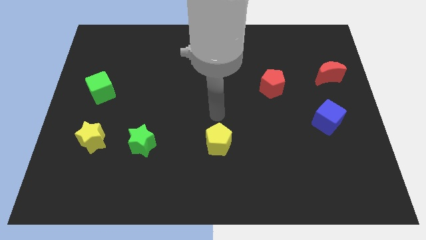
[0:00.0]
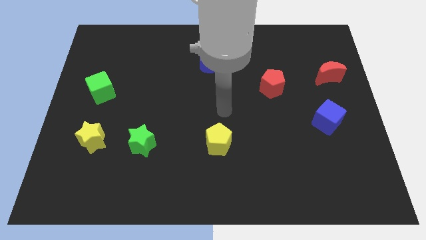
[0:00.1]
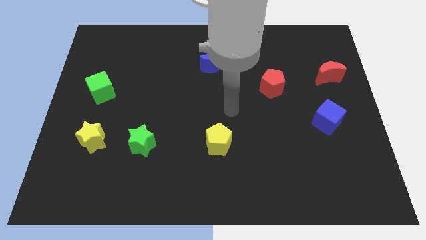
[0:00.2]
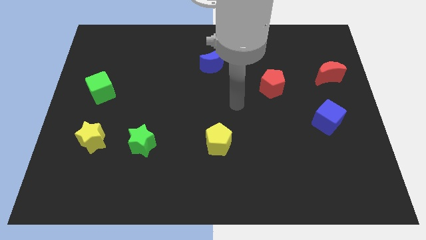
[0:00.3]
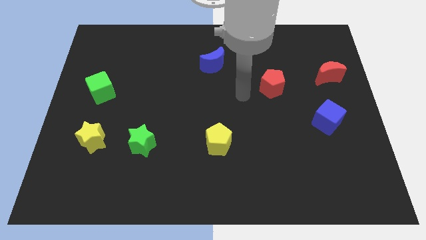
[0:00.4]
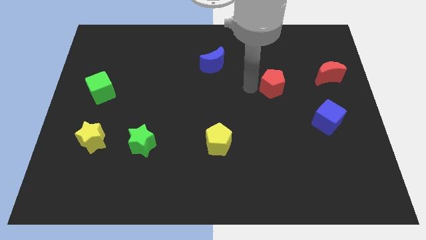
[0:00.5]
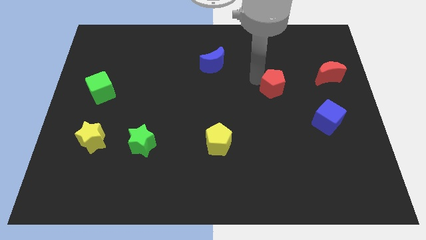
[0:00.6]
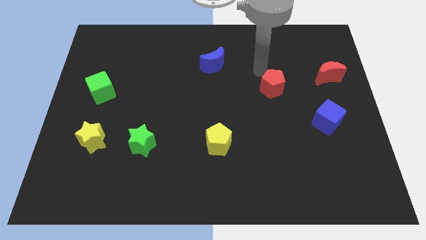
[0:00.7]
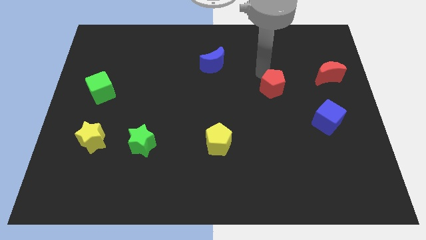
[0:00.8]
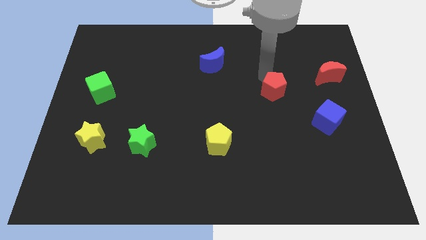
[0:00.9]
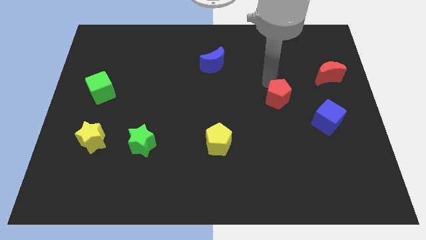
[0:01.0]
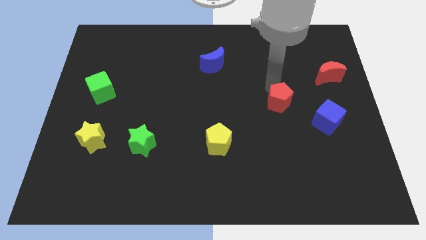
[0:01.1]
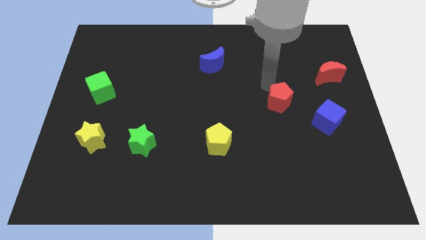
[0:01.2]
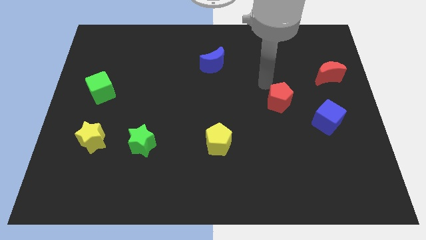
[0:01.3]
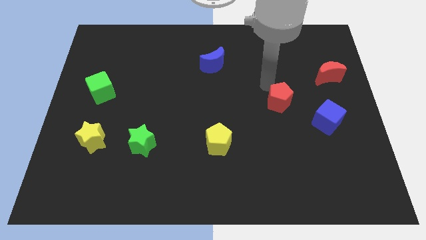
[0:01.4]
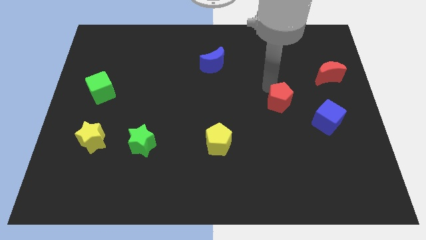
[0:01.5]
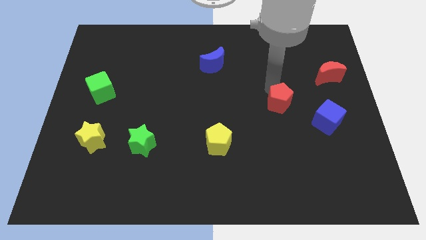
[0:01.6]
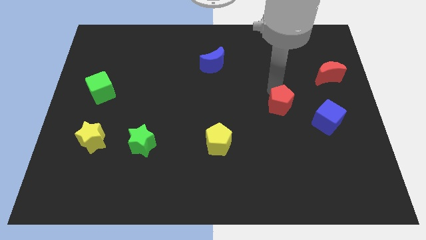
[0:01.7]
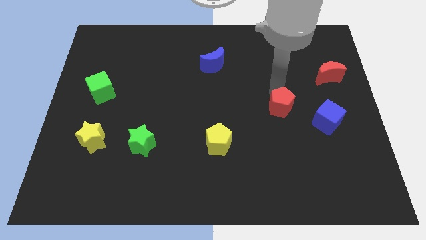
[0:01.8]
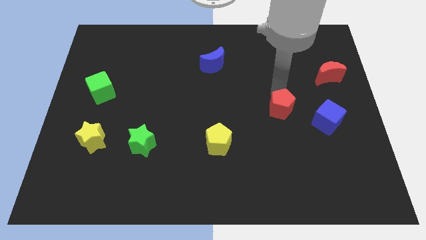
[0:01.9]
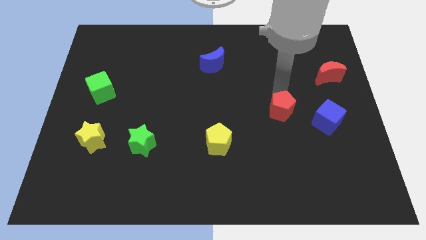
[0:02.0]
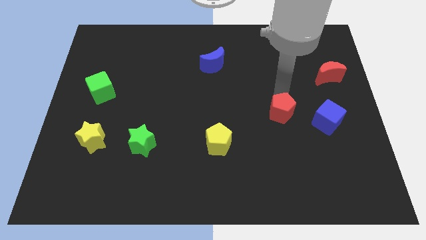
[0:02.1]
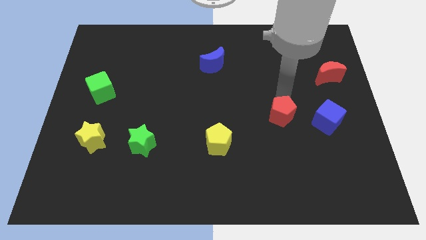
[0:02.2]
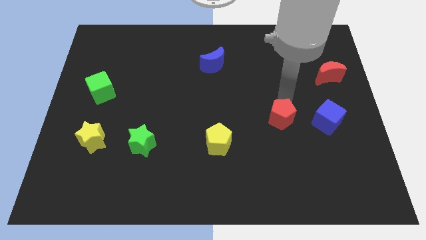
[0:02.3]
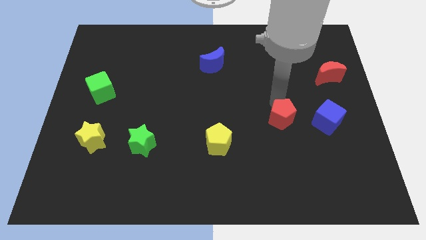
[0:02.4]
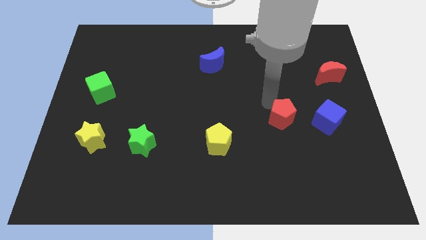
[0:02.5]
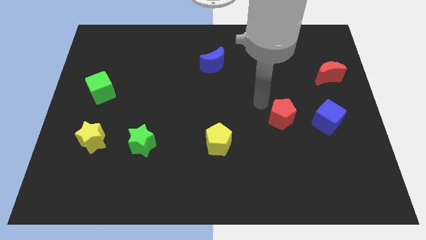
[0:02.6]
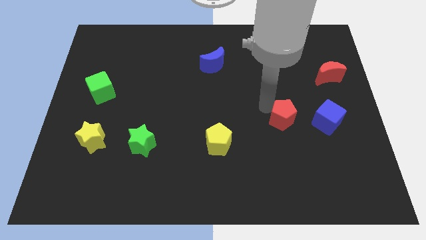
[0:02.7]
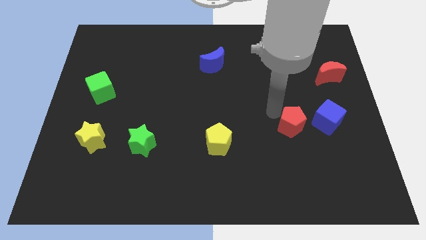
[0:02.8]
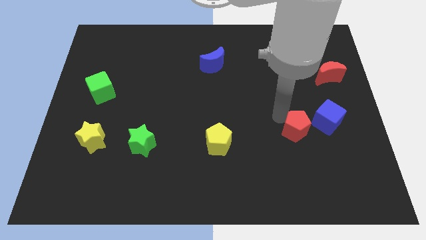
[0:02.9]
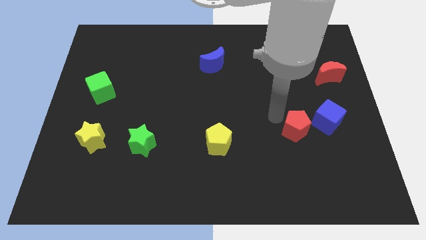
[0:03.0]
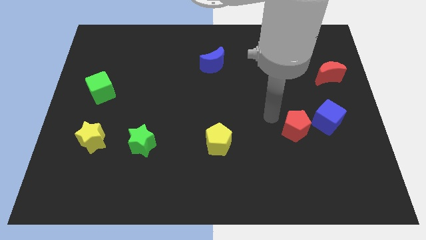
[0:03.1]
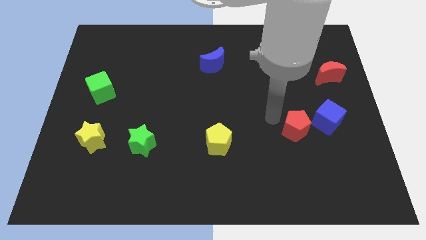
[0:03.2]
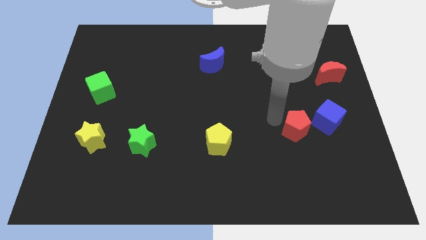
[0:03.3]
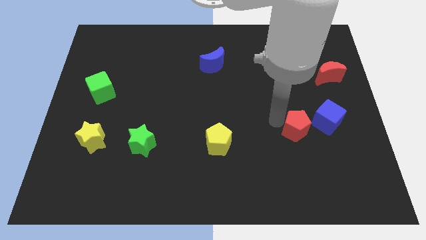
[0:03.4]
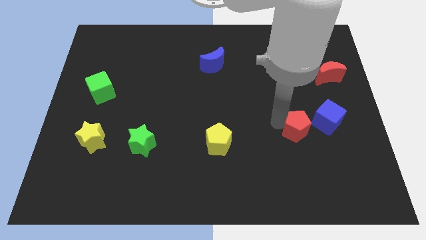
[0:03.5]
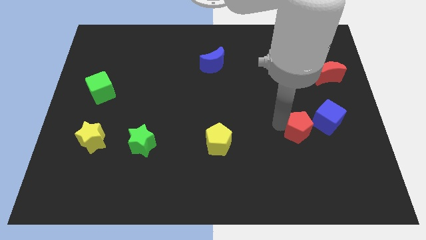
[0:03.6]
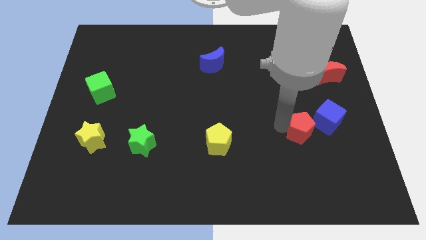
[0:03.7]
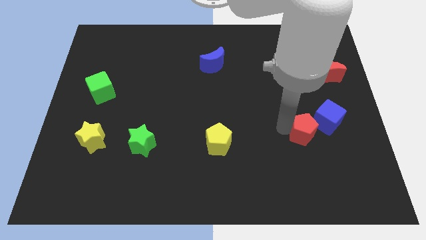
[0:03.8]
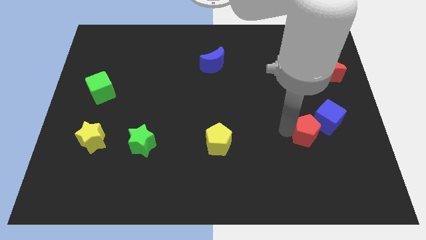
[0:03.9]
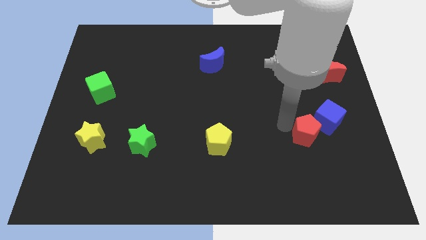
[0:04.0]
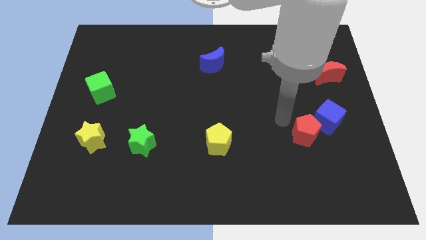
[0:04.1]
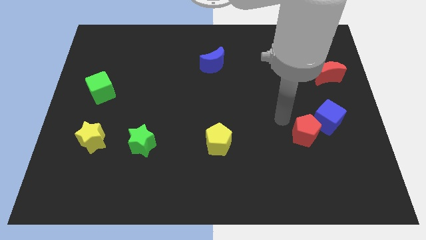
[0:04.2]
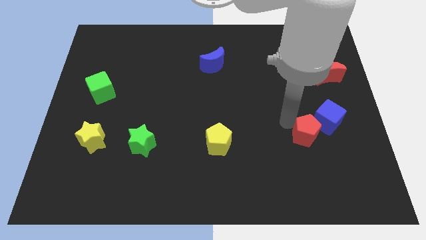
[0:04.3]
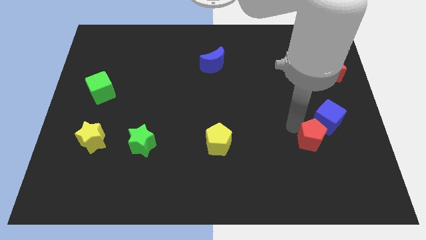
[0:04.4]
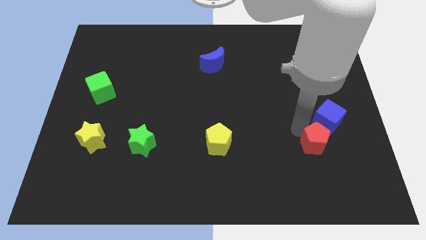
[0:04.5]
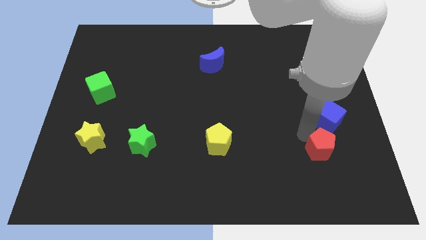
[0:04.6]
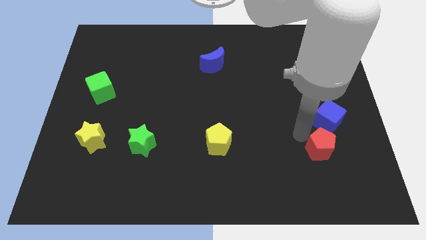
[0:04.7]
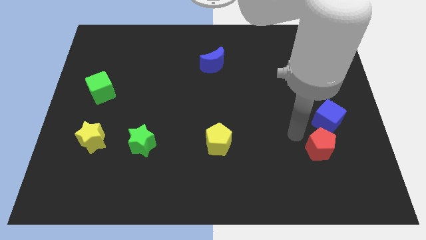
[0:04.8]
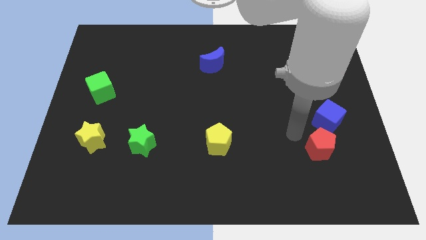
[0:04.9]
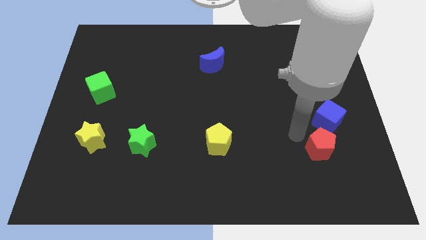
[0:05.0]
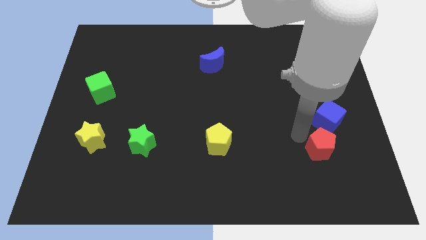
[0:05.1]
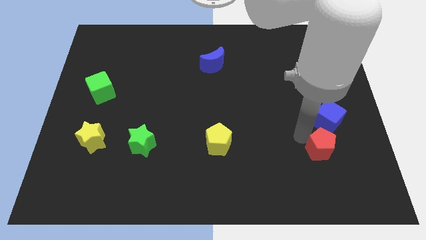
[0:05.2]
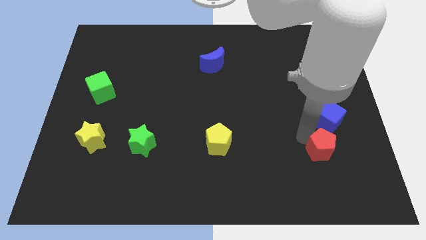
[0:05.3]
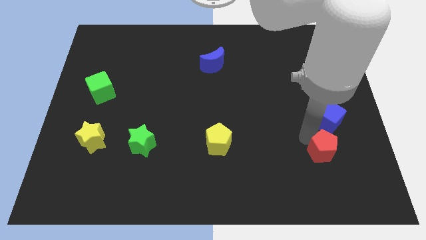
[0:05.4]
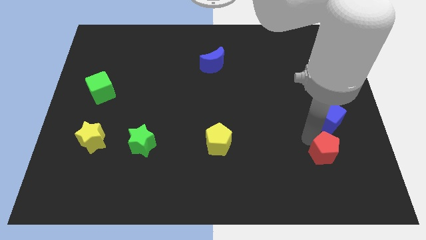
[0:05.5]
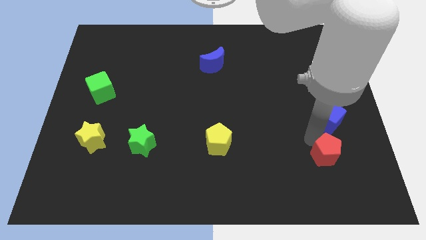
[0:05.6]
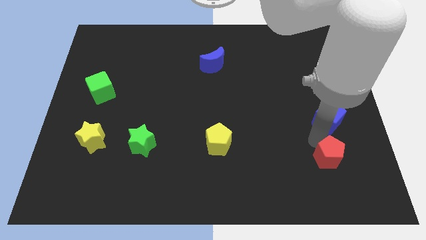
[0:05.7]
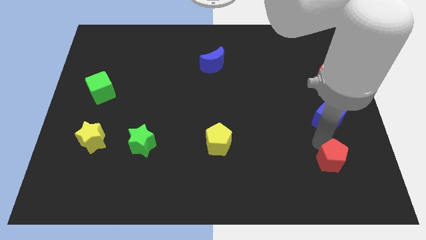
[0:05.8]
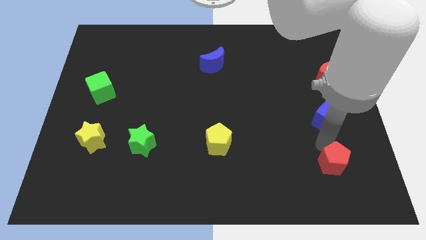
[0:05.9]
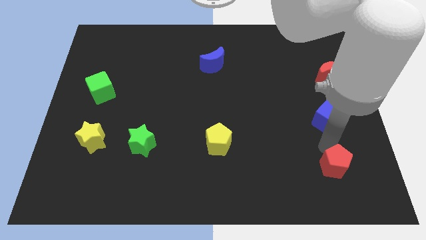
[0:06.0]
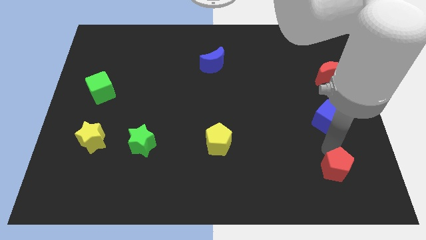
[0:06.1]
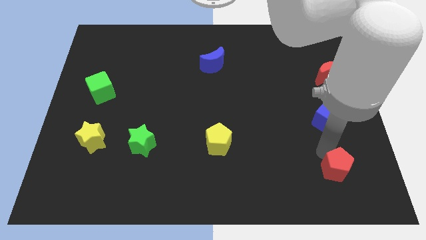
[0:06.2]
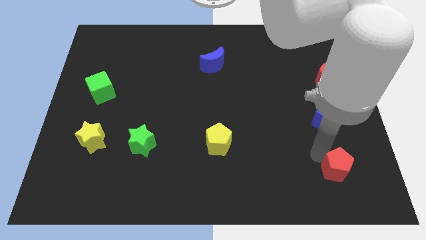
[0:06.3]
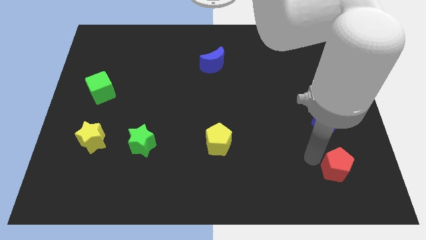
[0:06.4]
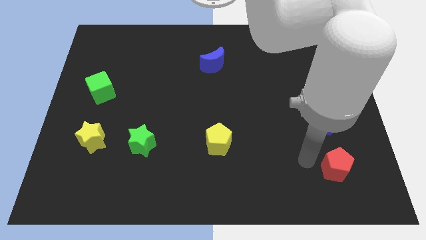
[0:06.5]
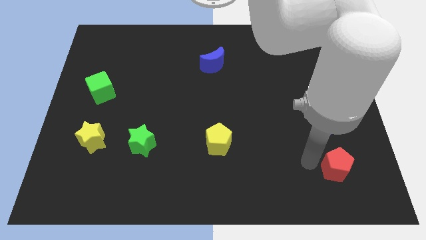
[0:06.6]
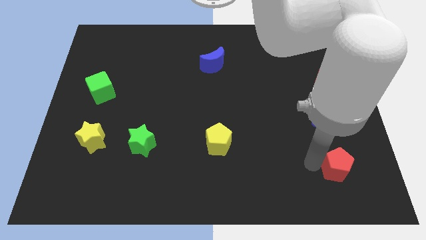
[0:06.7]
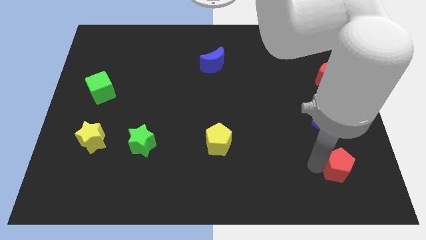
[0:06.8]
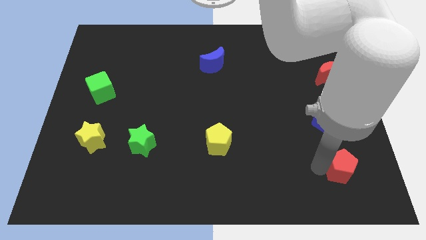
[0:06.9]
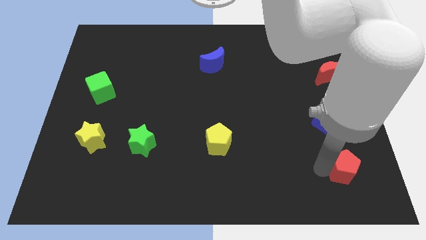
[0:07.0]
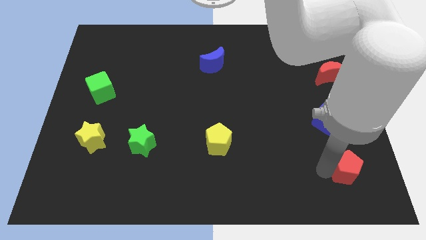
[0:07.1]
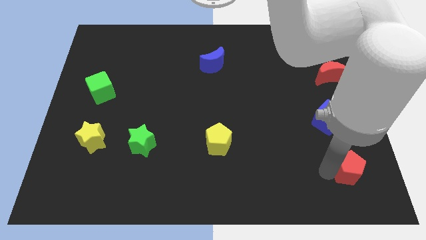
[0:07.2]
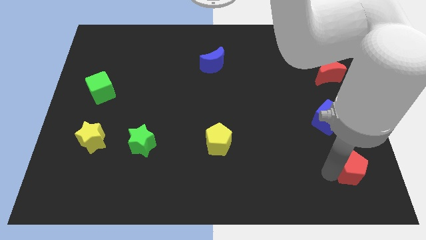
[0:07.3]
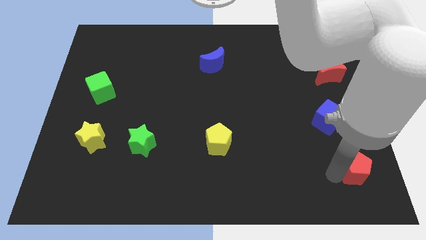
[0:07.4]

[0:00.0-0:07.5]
move the red pentagon to the bottom right of the board

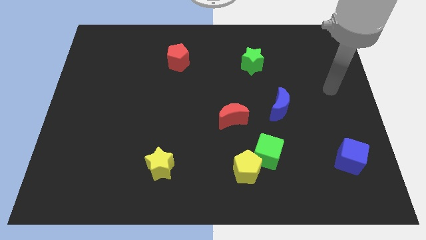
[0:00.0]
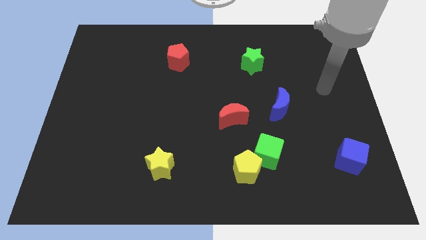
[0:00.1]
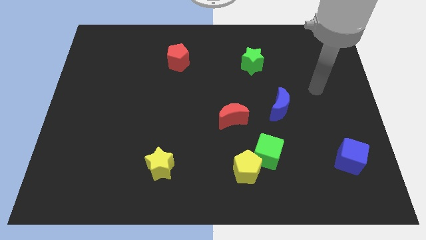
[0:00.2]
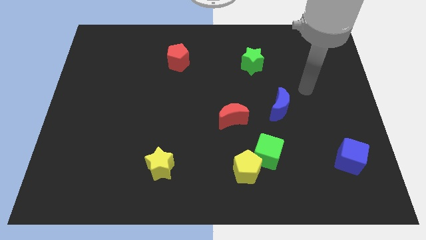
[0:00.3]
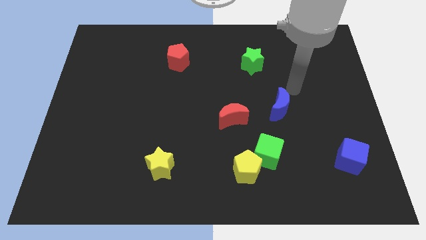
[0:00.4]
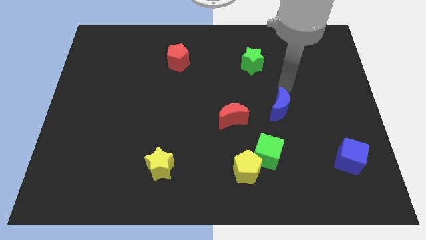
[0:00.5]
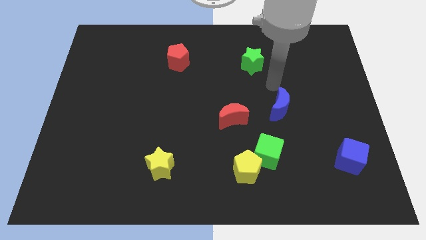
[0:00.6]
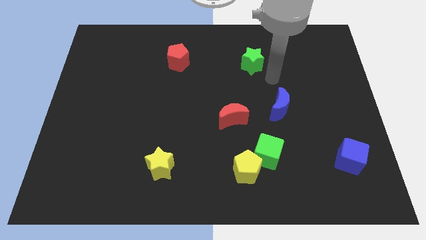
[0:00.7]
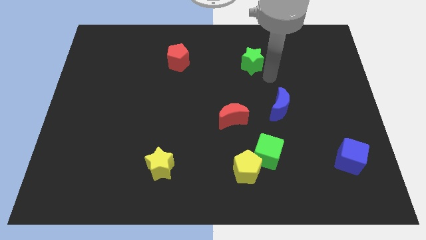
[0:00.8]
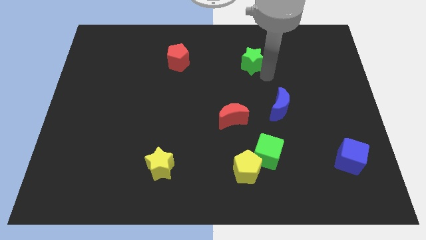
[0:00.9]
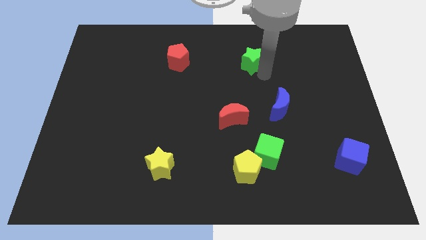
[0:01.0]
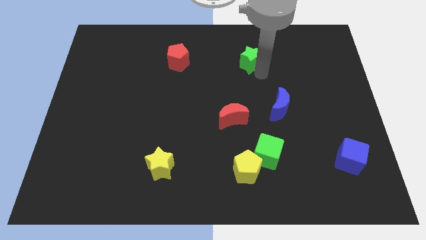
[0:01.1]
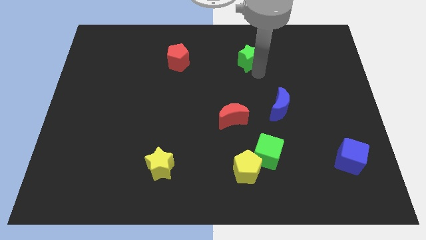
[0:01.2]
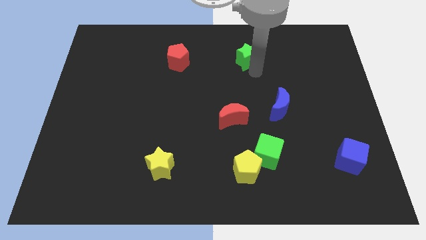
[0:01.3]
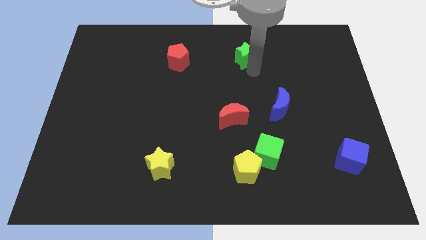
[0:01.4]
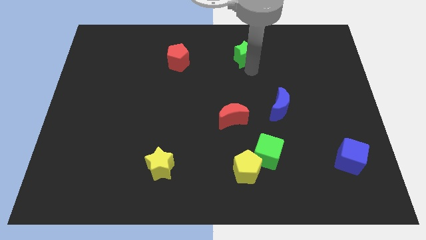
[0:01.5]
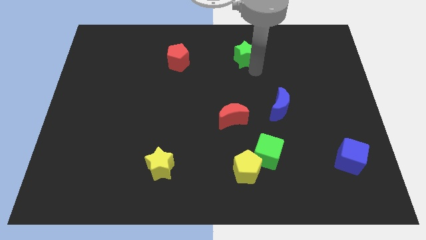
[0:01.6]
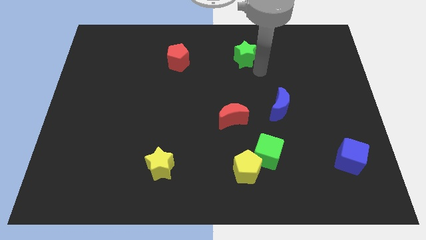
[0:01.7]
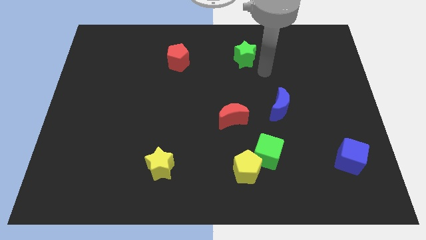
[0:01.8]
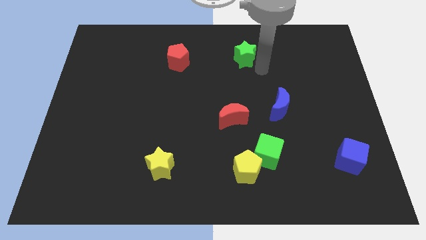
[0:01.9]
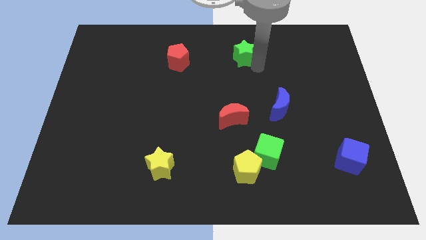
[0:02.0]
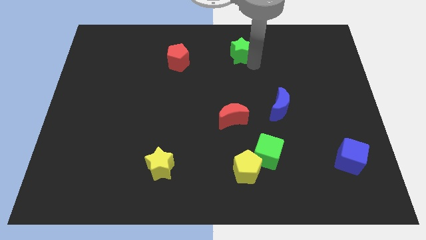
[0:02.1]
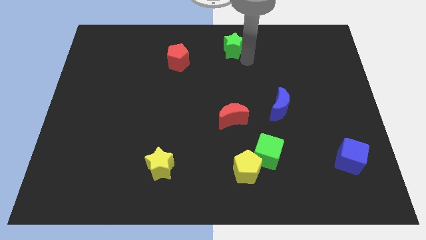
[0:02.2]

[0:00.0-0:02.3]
put the green star to the towards your base
